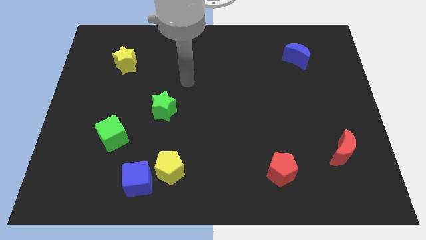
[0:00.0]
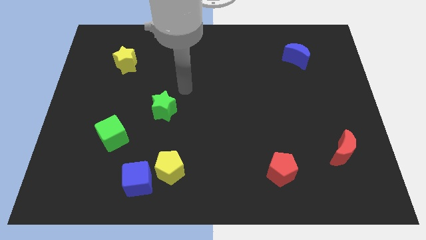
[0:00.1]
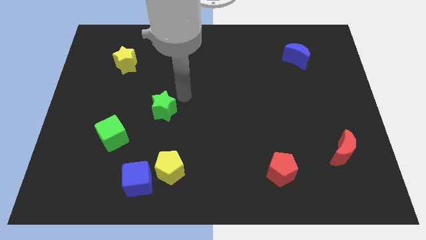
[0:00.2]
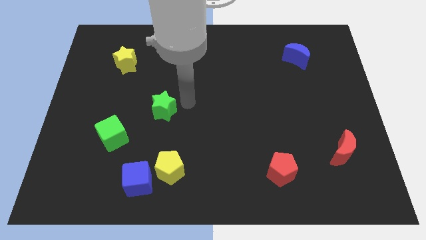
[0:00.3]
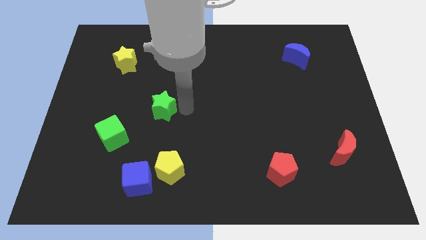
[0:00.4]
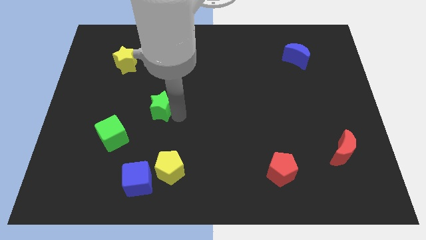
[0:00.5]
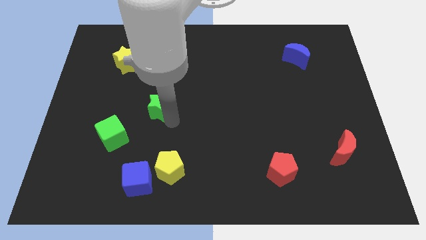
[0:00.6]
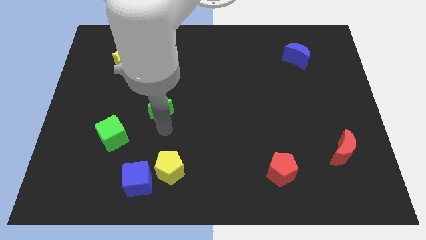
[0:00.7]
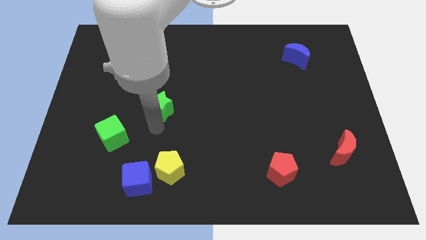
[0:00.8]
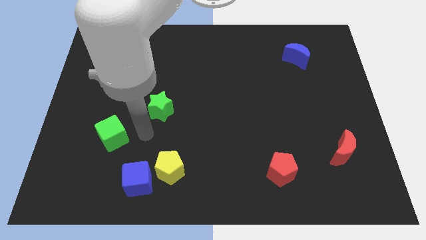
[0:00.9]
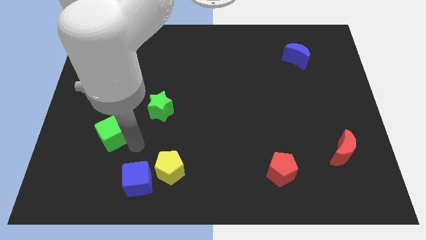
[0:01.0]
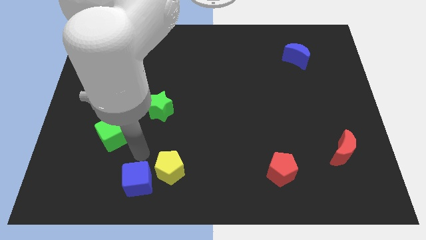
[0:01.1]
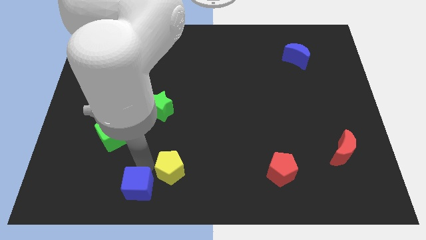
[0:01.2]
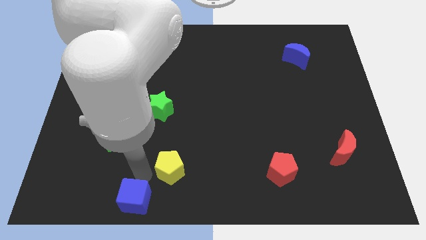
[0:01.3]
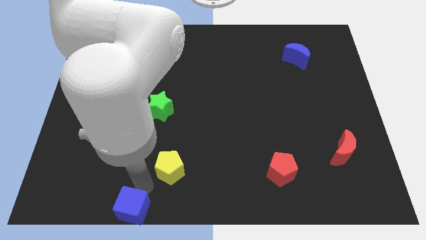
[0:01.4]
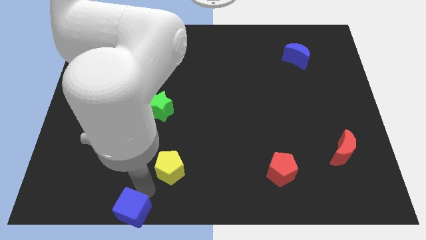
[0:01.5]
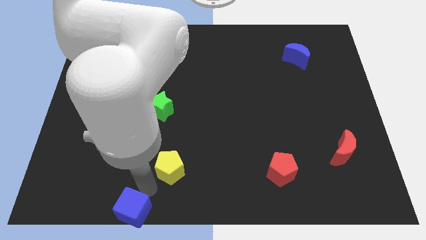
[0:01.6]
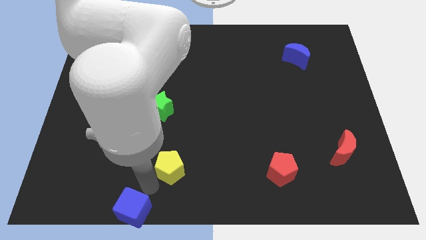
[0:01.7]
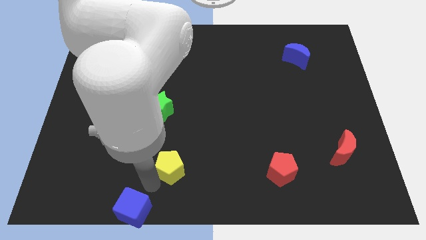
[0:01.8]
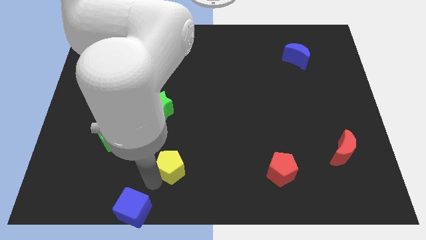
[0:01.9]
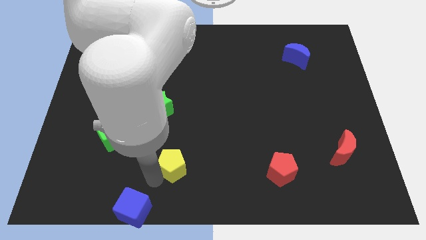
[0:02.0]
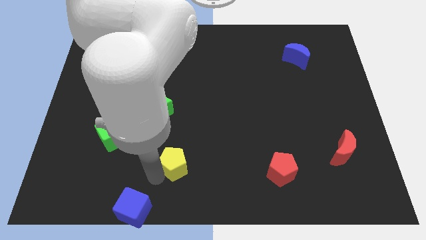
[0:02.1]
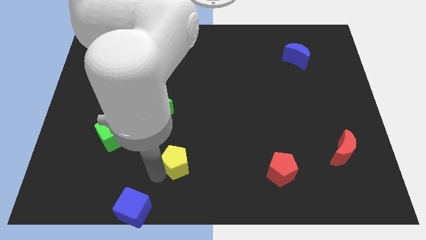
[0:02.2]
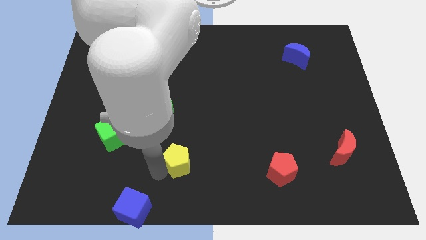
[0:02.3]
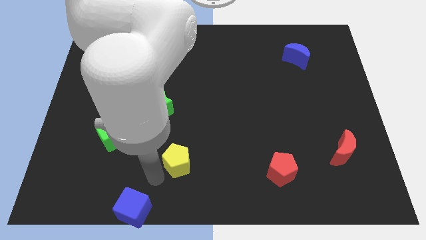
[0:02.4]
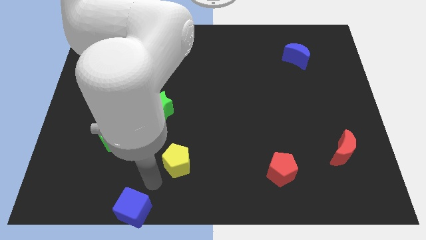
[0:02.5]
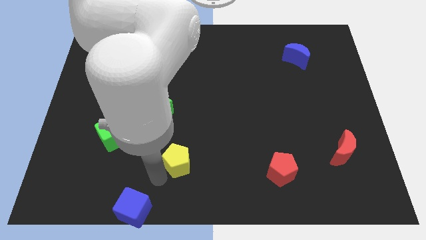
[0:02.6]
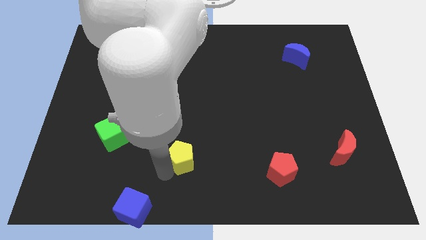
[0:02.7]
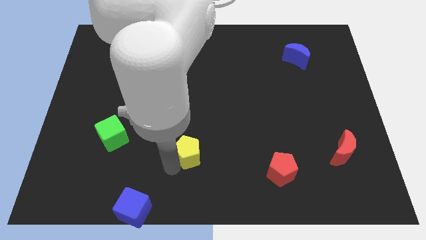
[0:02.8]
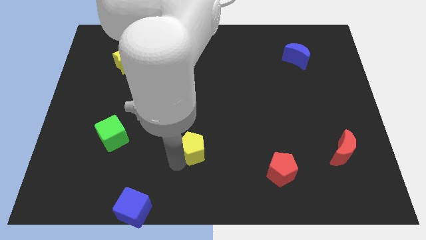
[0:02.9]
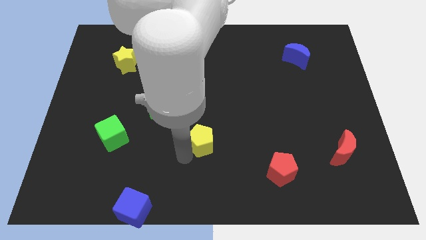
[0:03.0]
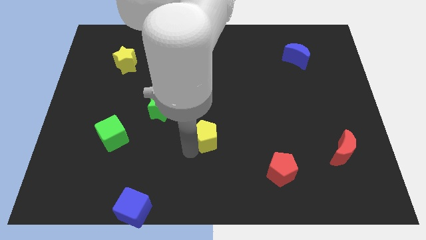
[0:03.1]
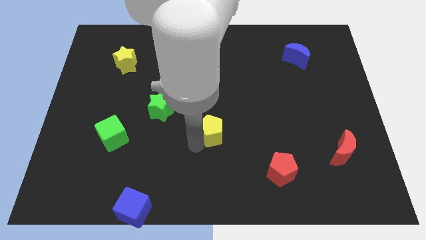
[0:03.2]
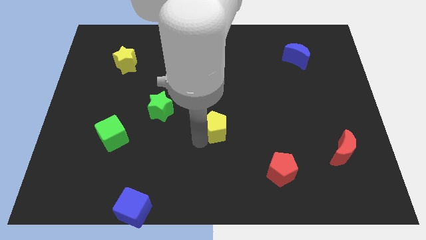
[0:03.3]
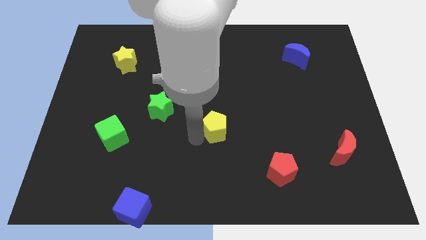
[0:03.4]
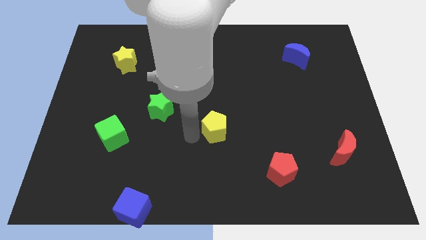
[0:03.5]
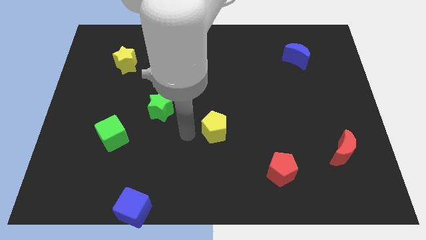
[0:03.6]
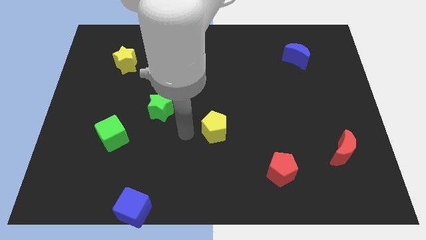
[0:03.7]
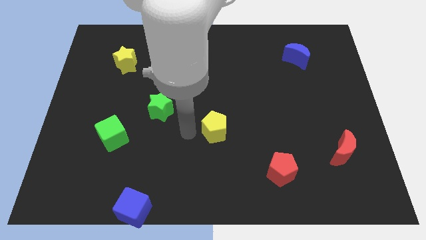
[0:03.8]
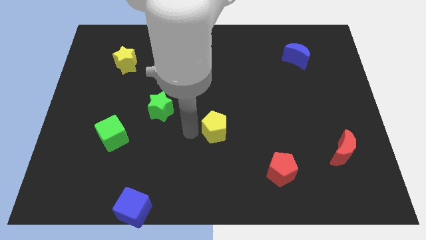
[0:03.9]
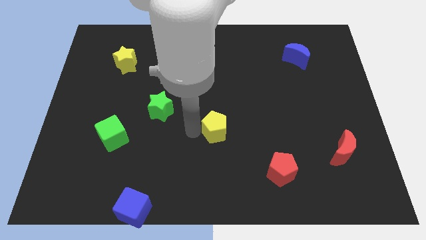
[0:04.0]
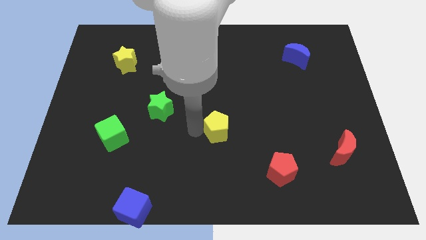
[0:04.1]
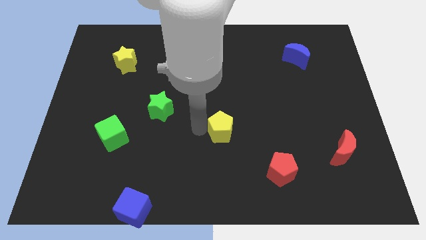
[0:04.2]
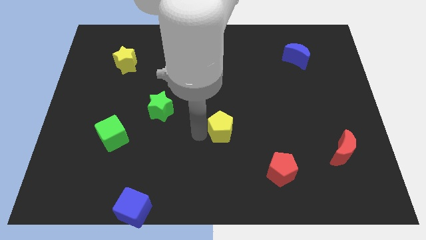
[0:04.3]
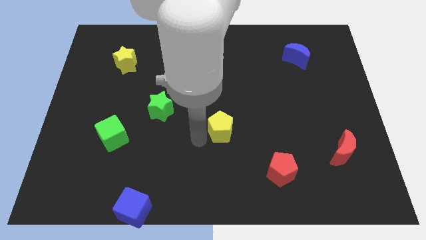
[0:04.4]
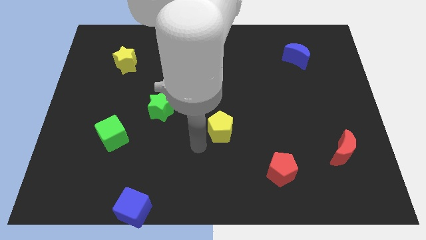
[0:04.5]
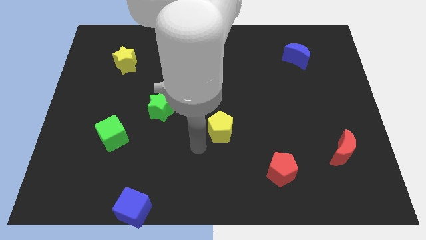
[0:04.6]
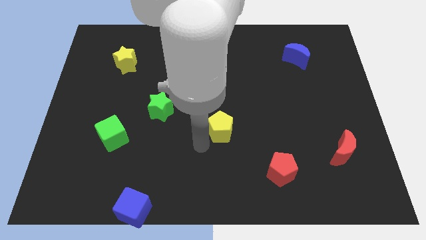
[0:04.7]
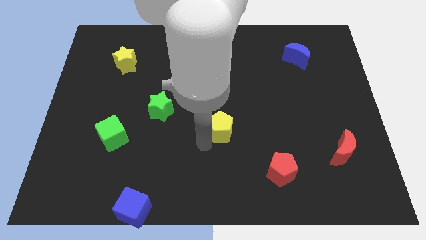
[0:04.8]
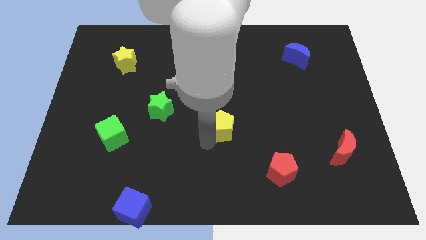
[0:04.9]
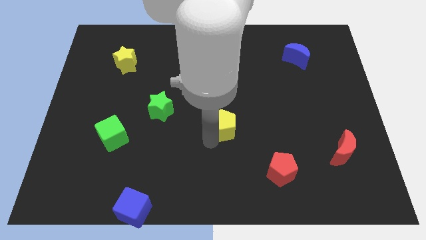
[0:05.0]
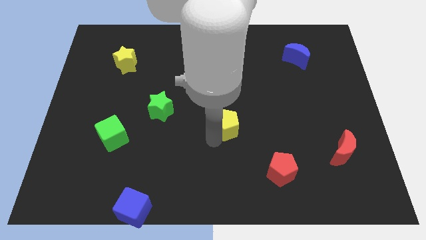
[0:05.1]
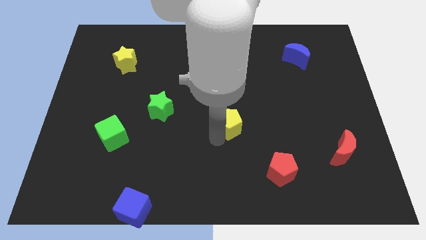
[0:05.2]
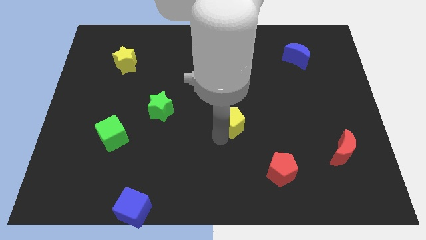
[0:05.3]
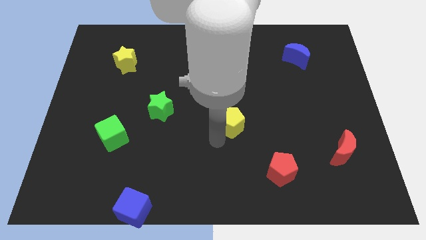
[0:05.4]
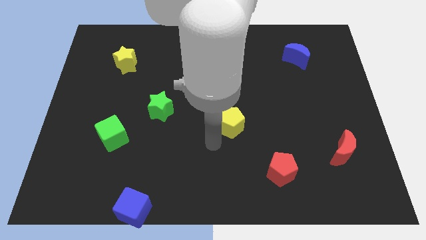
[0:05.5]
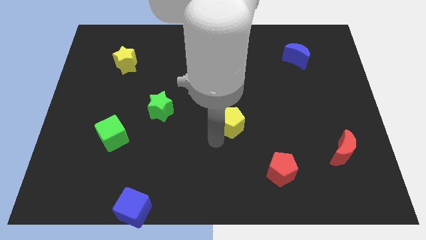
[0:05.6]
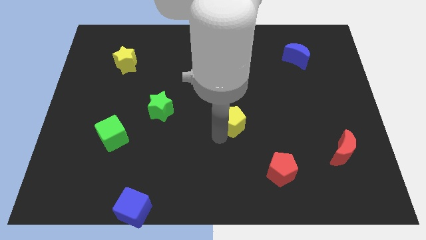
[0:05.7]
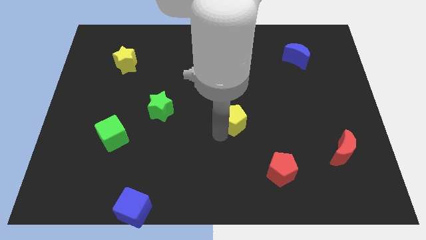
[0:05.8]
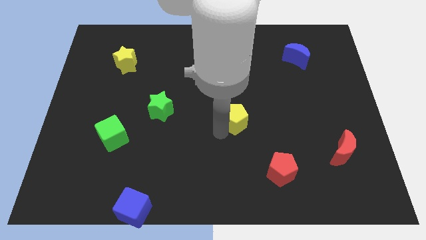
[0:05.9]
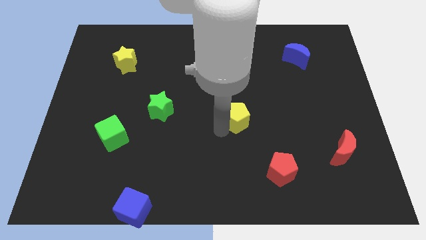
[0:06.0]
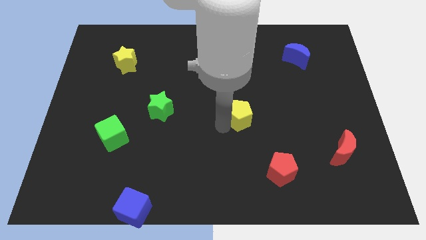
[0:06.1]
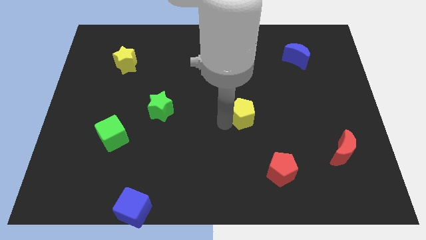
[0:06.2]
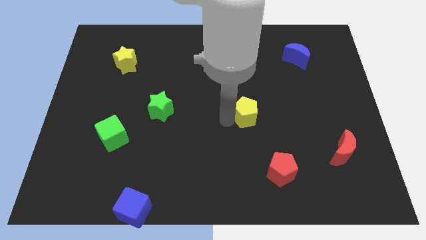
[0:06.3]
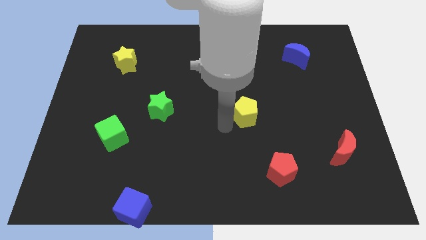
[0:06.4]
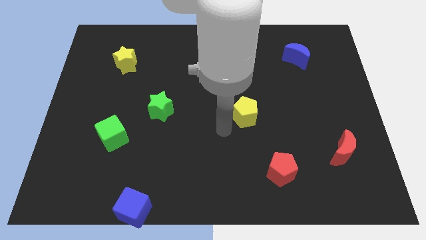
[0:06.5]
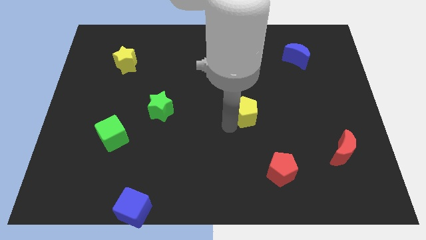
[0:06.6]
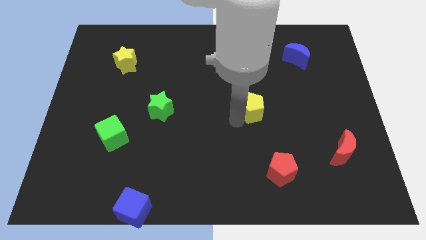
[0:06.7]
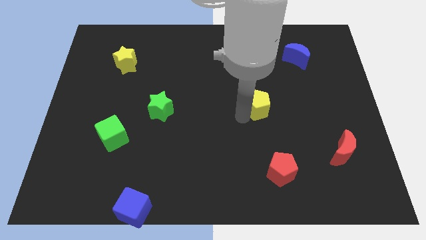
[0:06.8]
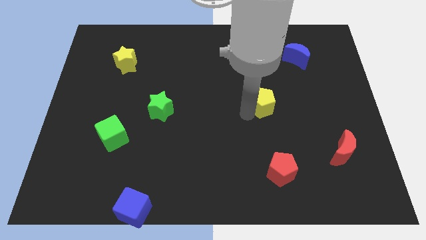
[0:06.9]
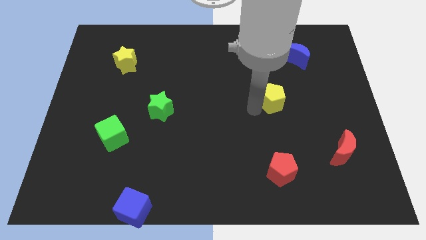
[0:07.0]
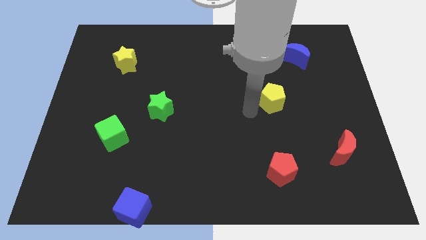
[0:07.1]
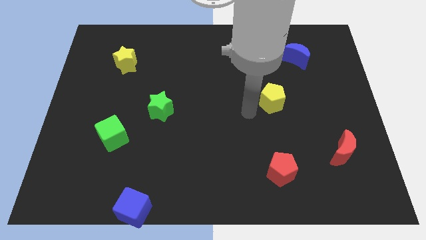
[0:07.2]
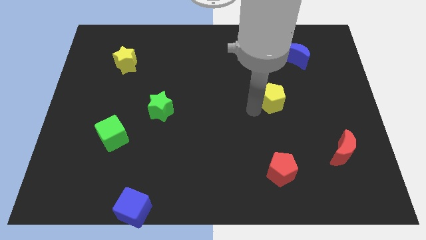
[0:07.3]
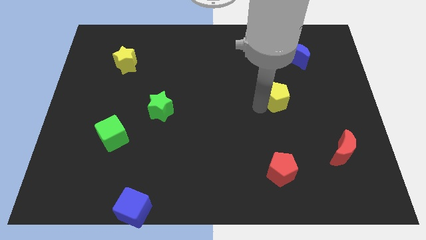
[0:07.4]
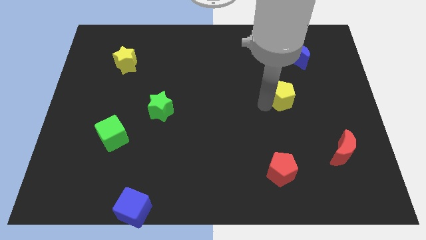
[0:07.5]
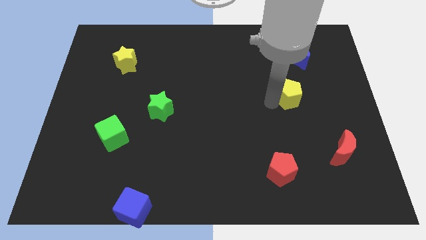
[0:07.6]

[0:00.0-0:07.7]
put the yellow pentagon below the blue moon
